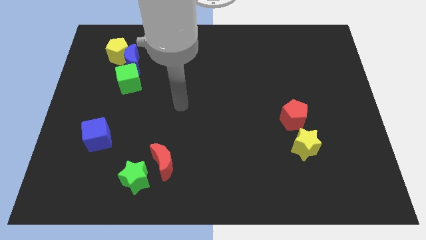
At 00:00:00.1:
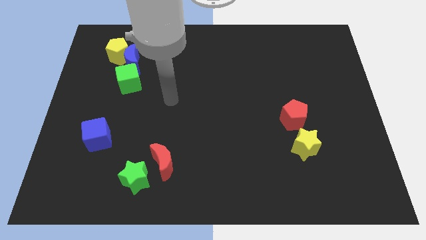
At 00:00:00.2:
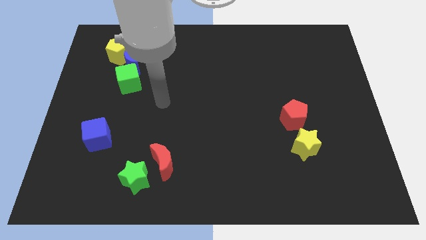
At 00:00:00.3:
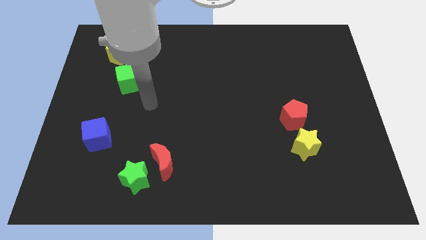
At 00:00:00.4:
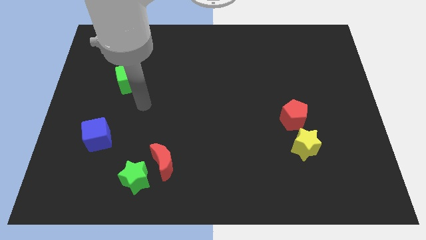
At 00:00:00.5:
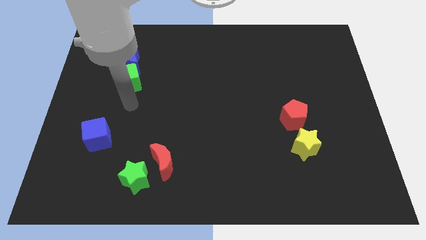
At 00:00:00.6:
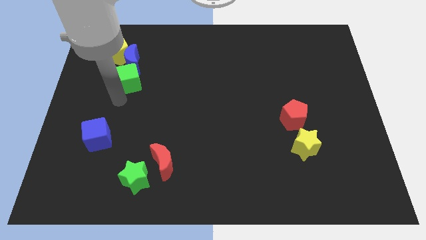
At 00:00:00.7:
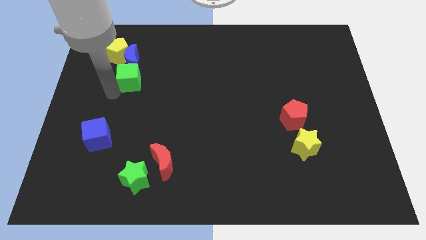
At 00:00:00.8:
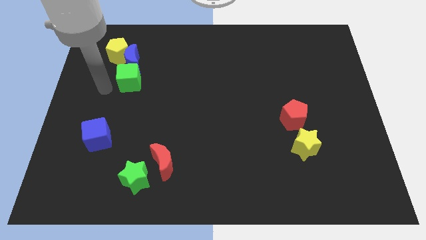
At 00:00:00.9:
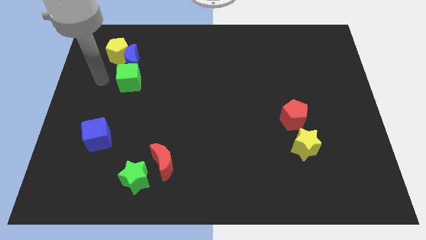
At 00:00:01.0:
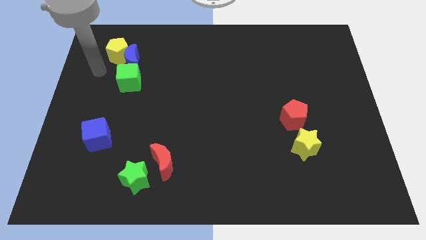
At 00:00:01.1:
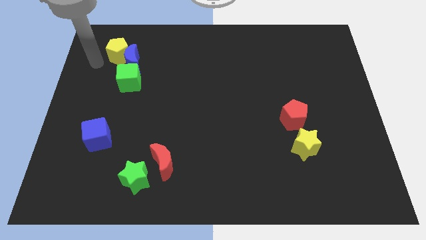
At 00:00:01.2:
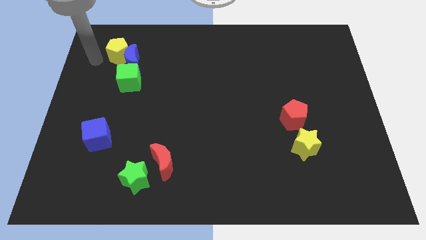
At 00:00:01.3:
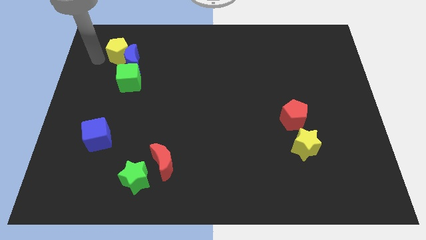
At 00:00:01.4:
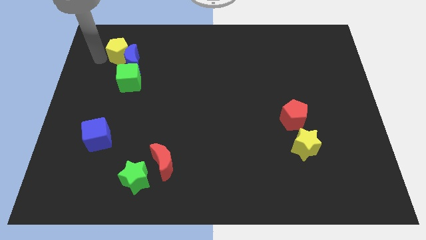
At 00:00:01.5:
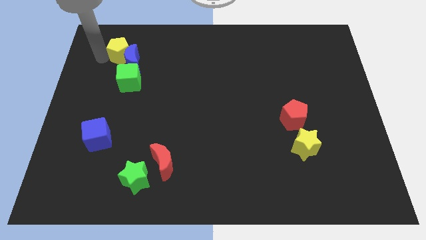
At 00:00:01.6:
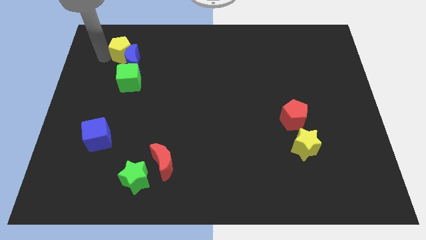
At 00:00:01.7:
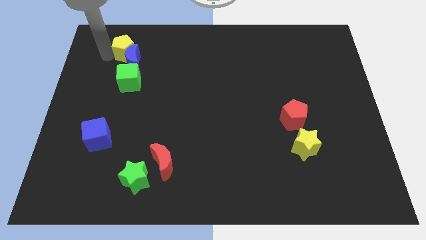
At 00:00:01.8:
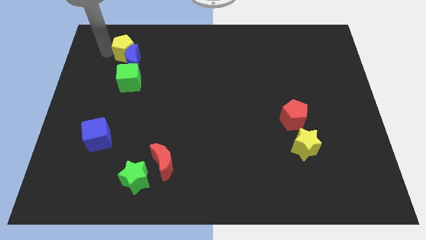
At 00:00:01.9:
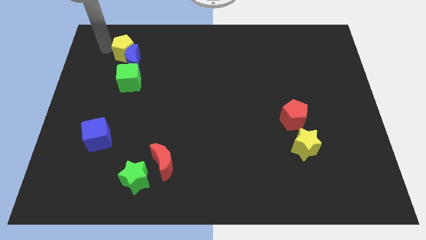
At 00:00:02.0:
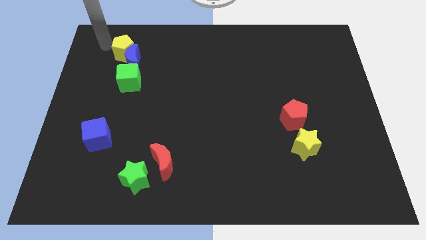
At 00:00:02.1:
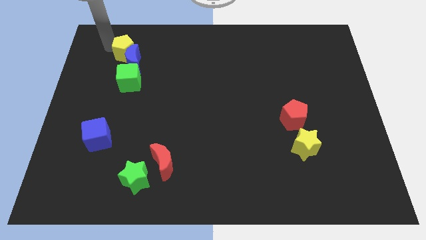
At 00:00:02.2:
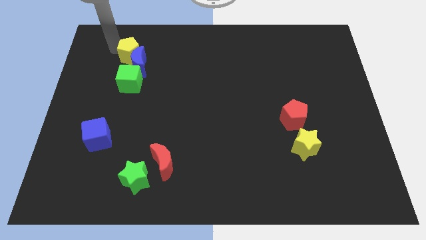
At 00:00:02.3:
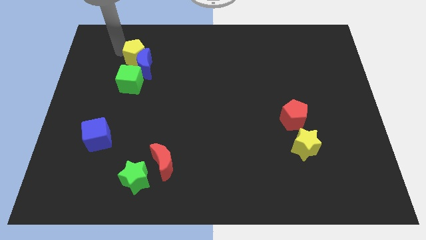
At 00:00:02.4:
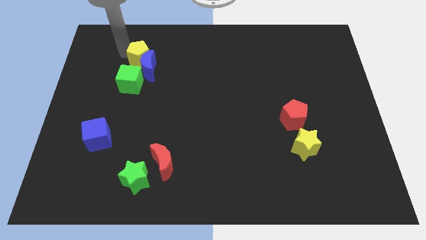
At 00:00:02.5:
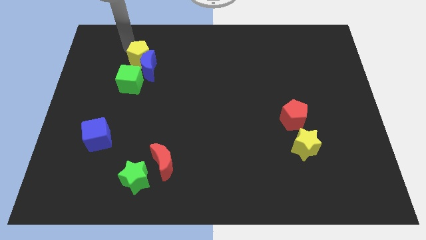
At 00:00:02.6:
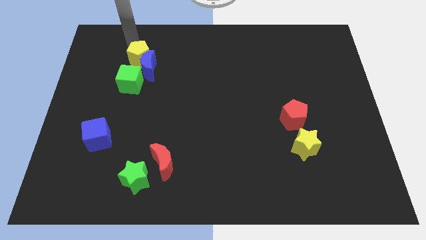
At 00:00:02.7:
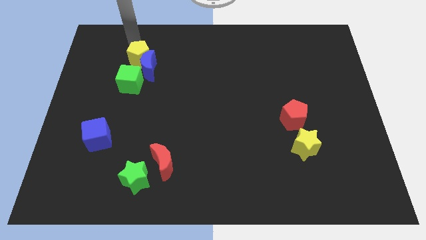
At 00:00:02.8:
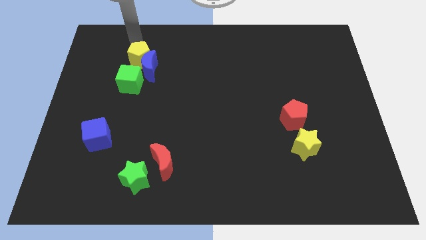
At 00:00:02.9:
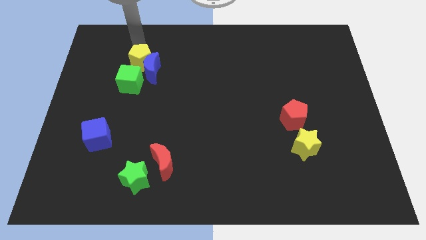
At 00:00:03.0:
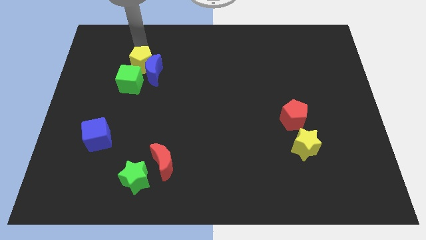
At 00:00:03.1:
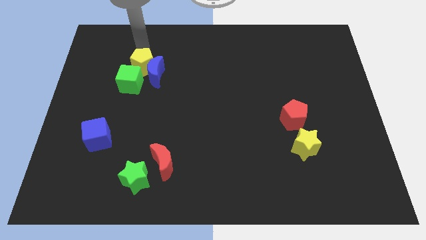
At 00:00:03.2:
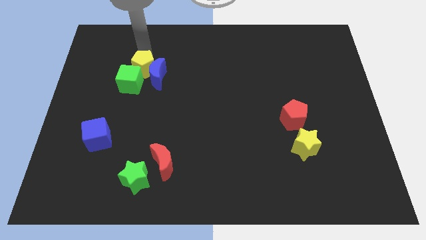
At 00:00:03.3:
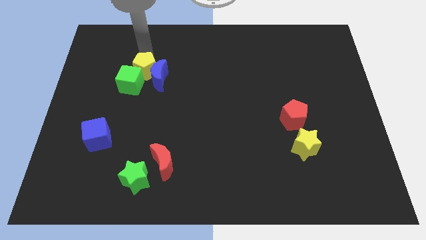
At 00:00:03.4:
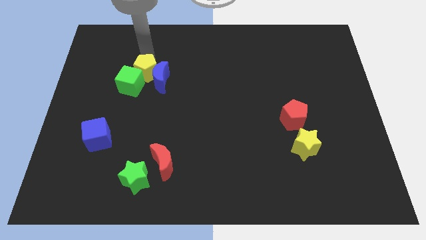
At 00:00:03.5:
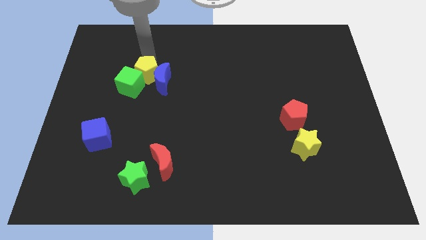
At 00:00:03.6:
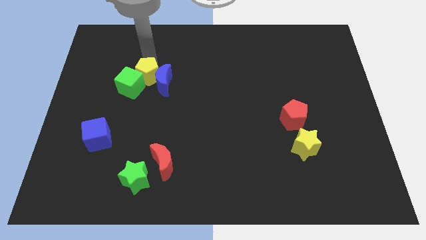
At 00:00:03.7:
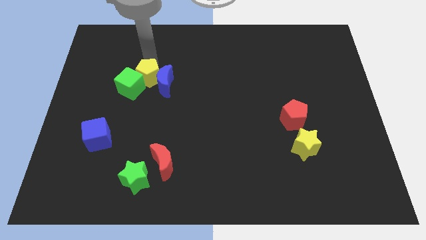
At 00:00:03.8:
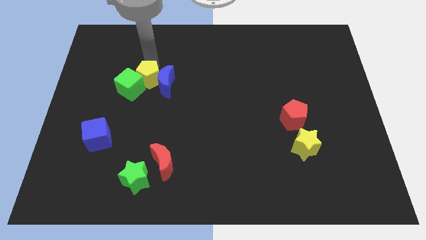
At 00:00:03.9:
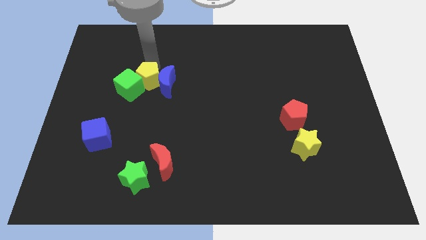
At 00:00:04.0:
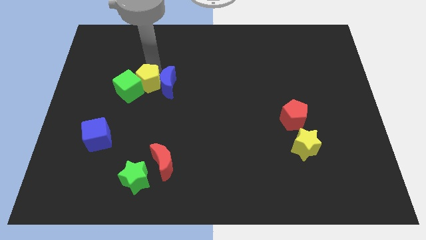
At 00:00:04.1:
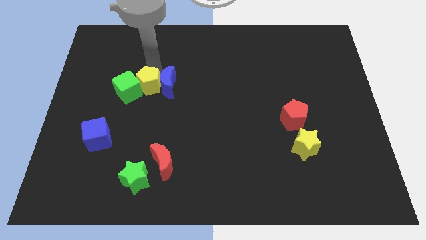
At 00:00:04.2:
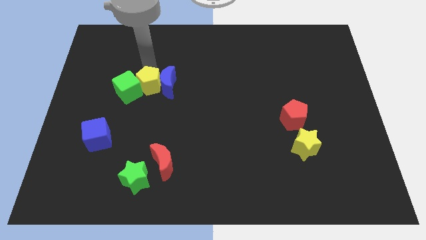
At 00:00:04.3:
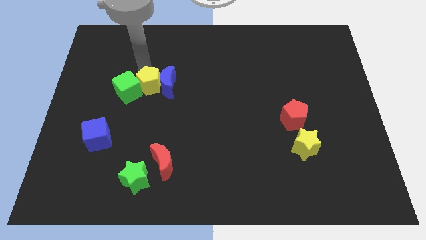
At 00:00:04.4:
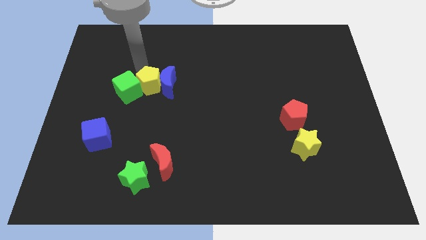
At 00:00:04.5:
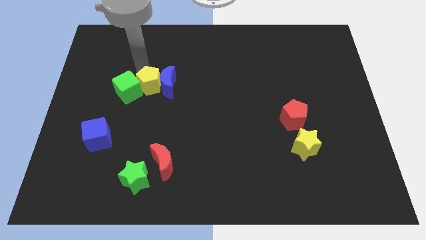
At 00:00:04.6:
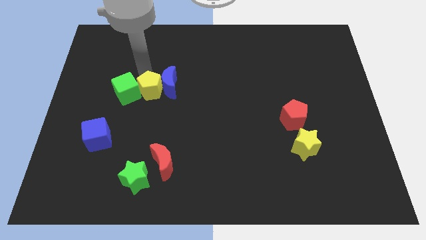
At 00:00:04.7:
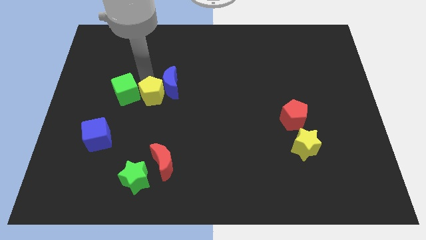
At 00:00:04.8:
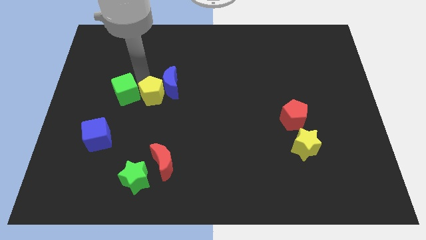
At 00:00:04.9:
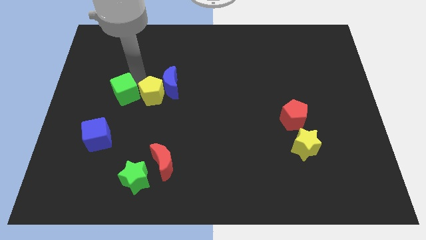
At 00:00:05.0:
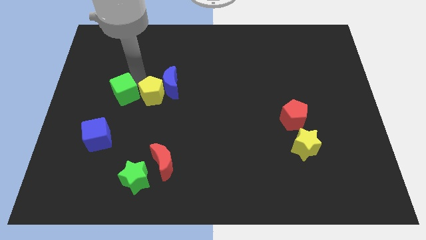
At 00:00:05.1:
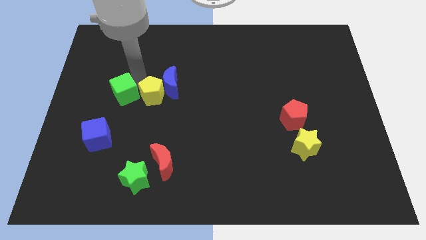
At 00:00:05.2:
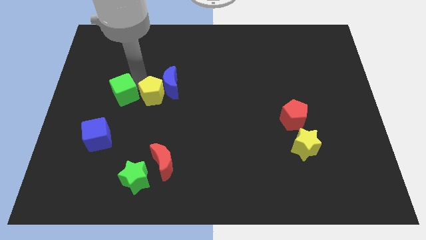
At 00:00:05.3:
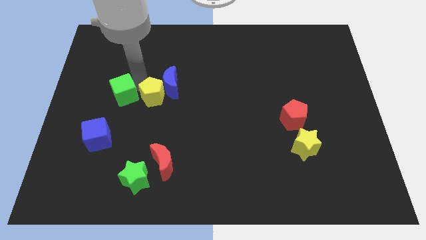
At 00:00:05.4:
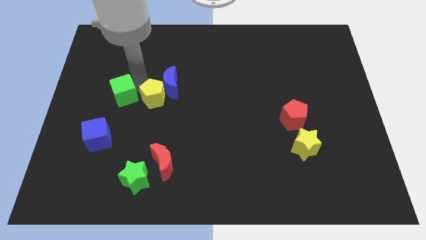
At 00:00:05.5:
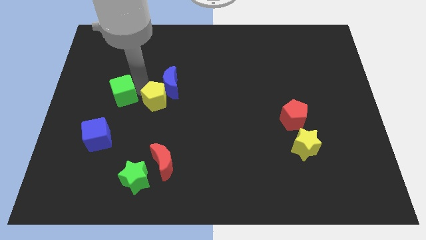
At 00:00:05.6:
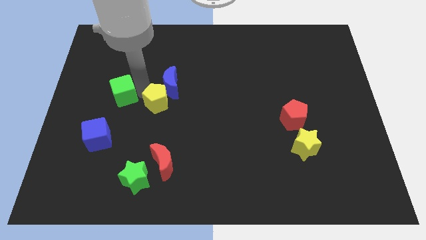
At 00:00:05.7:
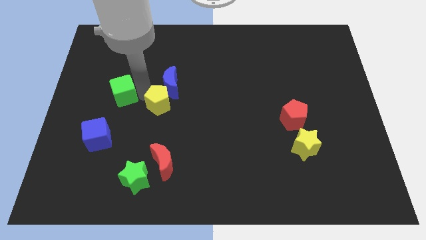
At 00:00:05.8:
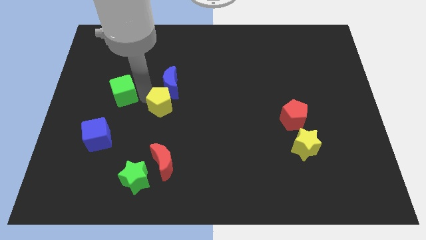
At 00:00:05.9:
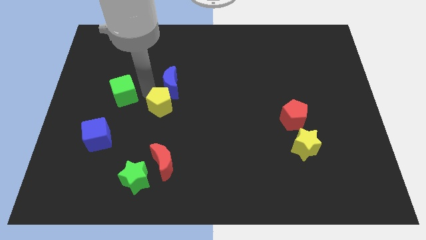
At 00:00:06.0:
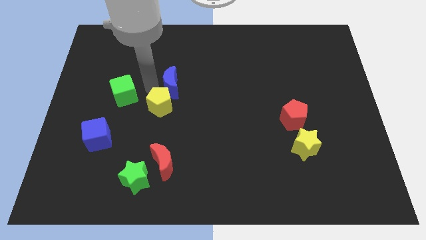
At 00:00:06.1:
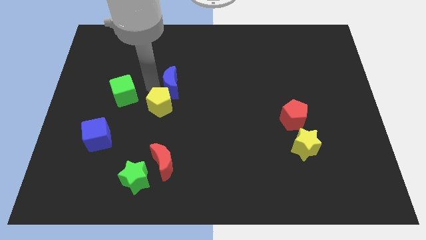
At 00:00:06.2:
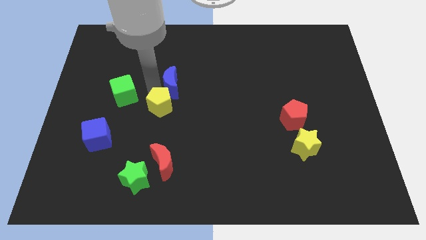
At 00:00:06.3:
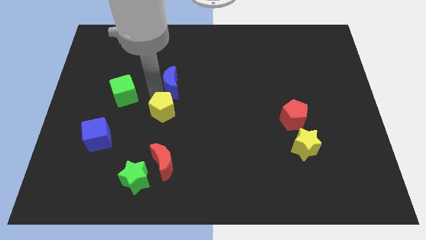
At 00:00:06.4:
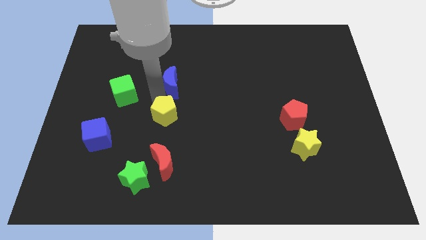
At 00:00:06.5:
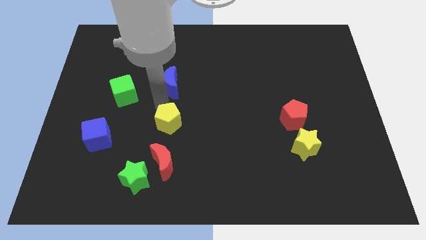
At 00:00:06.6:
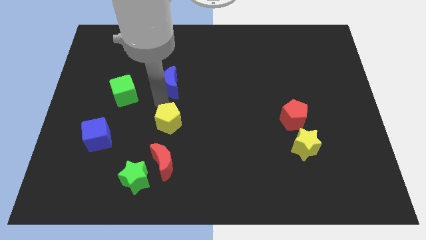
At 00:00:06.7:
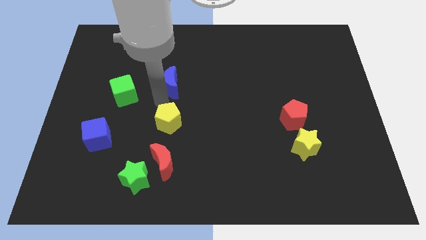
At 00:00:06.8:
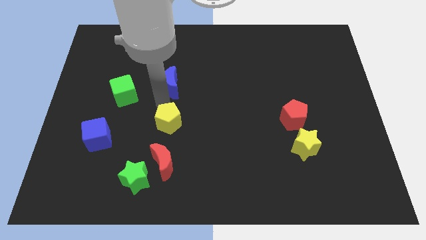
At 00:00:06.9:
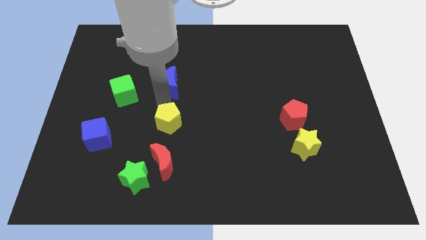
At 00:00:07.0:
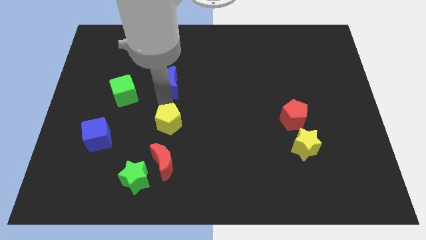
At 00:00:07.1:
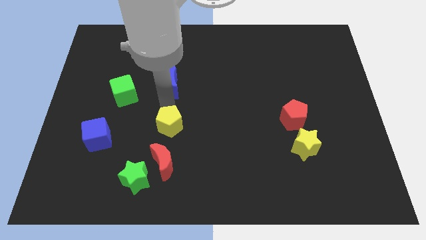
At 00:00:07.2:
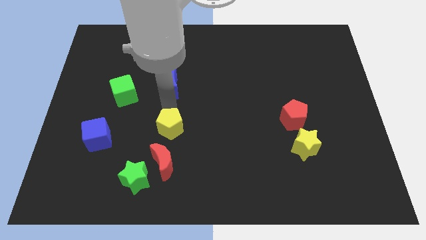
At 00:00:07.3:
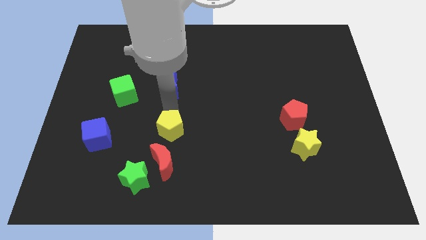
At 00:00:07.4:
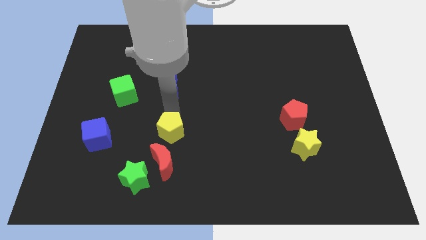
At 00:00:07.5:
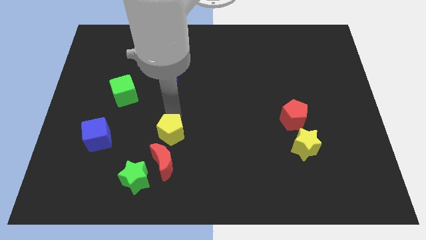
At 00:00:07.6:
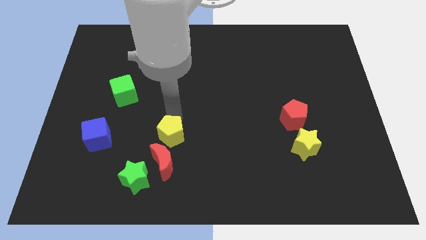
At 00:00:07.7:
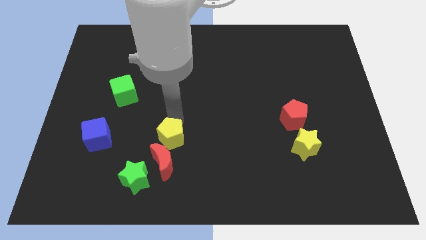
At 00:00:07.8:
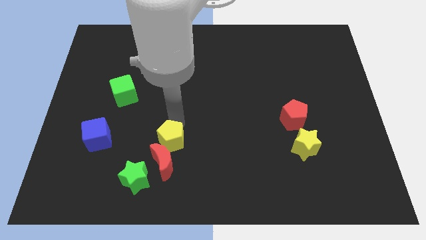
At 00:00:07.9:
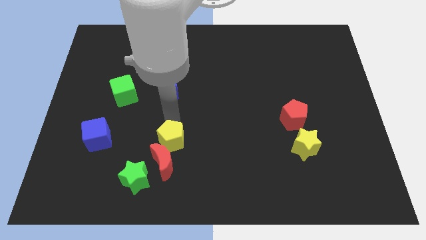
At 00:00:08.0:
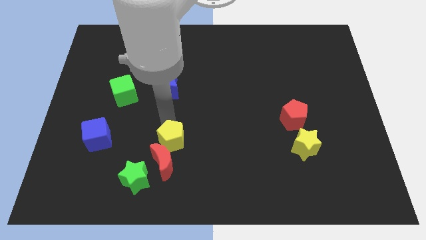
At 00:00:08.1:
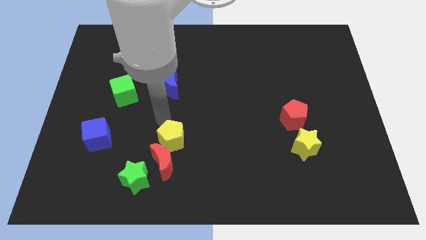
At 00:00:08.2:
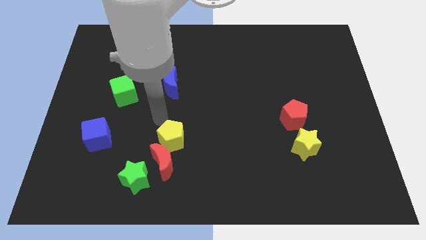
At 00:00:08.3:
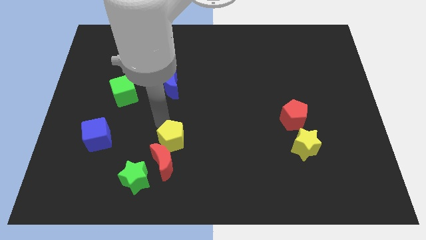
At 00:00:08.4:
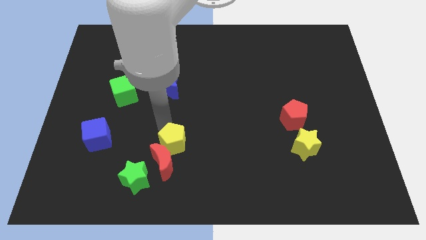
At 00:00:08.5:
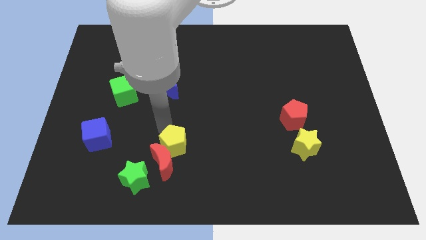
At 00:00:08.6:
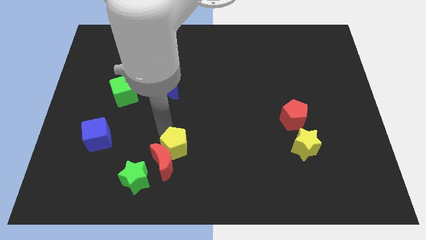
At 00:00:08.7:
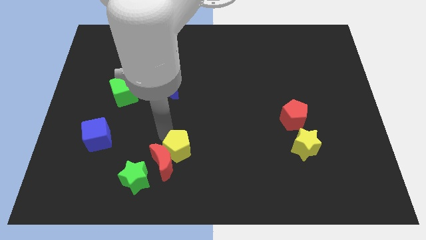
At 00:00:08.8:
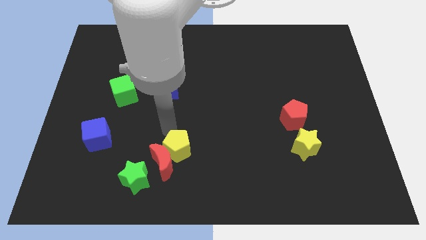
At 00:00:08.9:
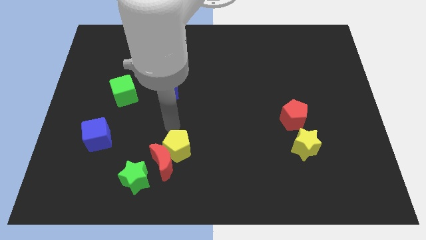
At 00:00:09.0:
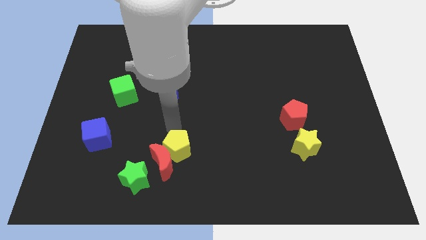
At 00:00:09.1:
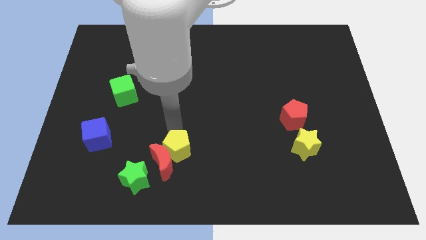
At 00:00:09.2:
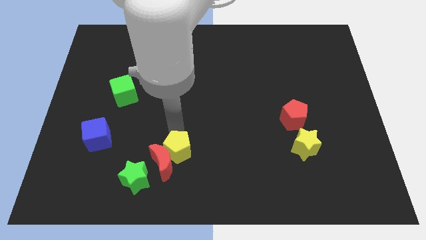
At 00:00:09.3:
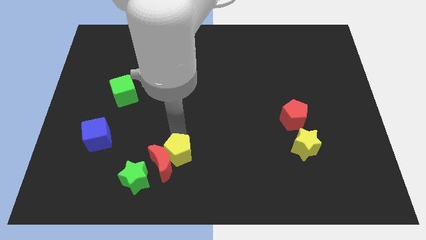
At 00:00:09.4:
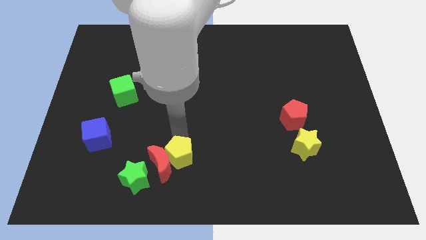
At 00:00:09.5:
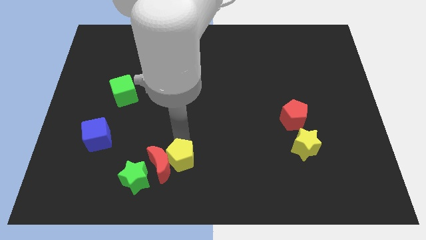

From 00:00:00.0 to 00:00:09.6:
move the yellow pentagon to the right of the green star
